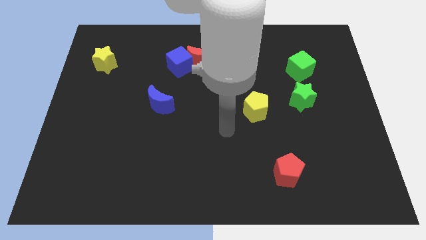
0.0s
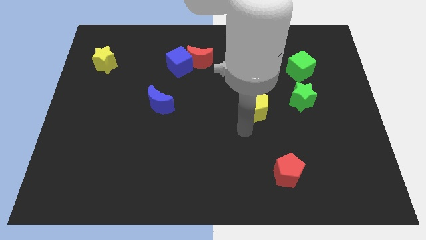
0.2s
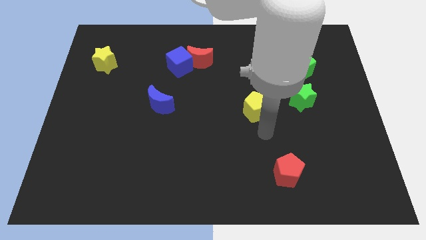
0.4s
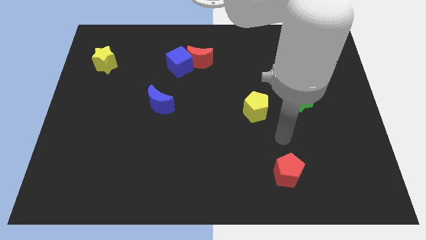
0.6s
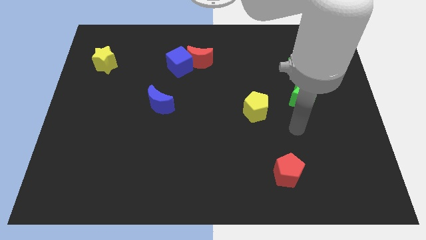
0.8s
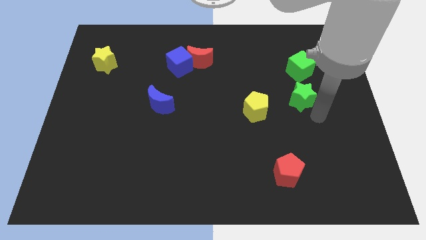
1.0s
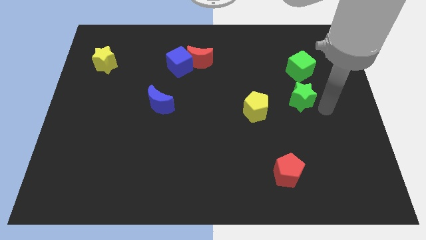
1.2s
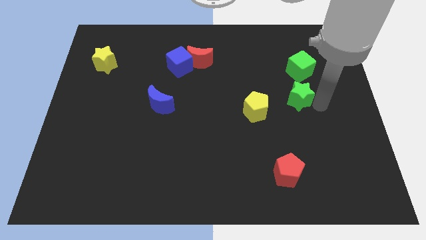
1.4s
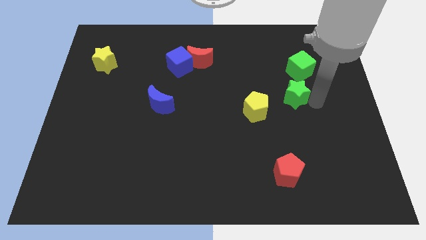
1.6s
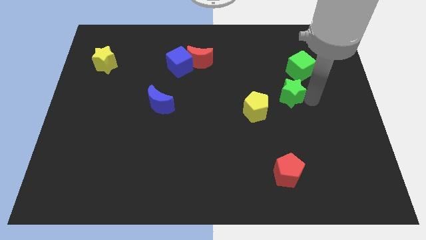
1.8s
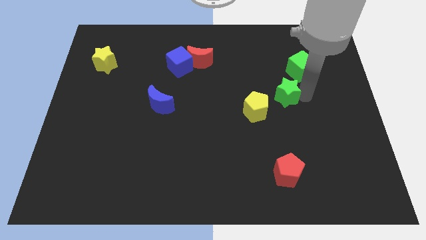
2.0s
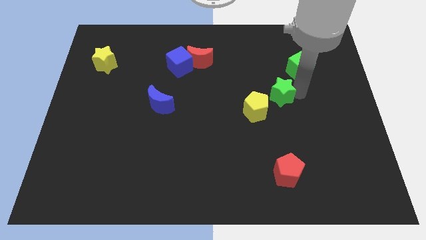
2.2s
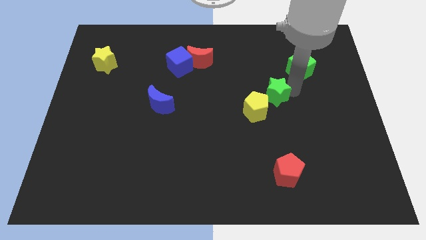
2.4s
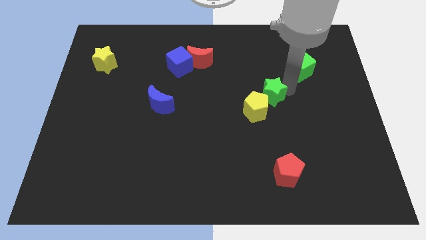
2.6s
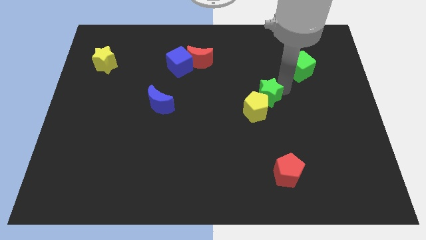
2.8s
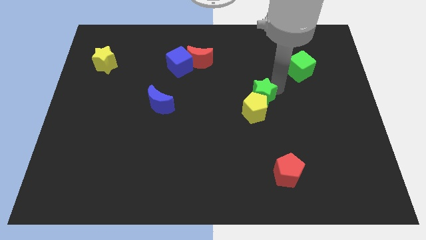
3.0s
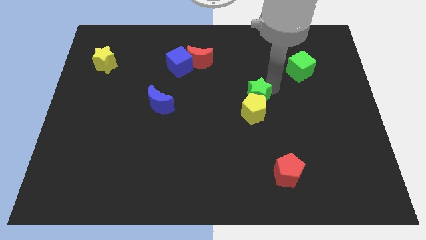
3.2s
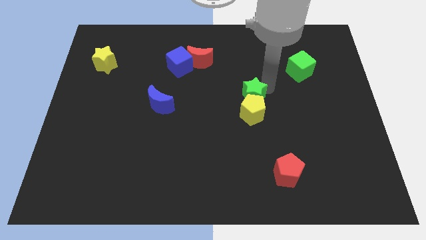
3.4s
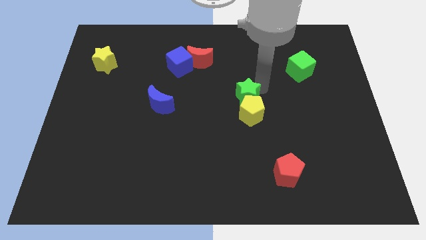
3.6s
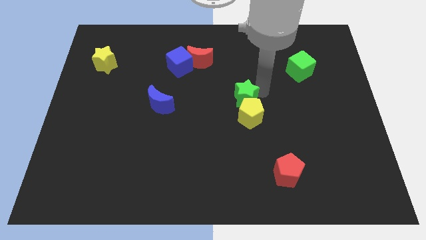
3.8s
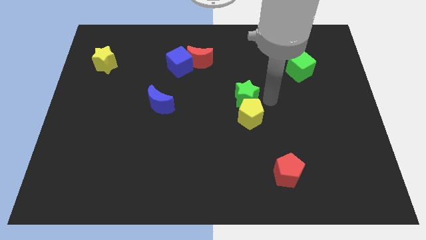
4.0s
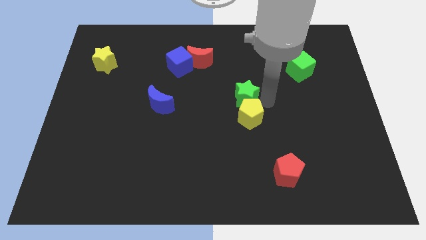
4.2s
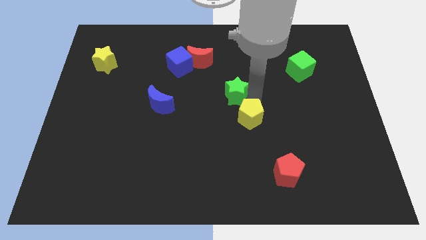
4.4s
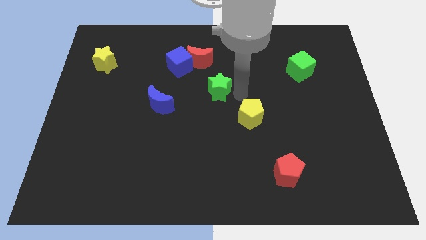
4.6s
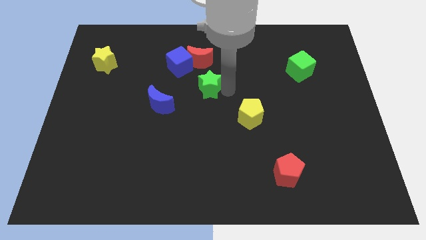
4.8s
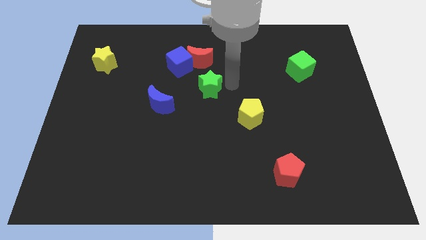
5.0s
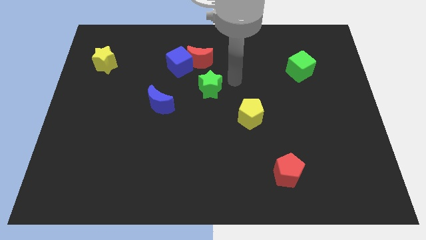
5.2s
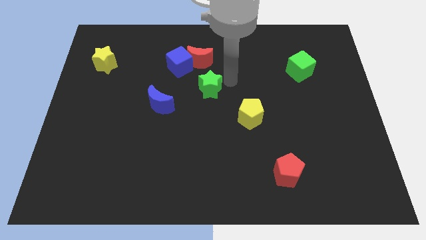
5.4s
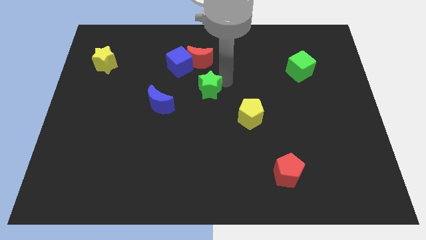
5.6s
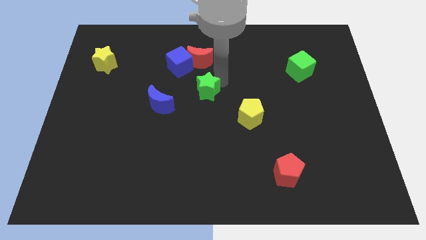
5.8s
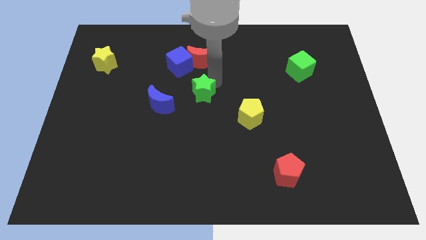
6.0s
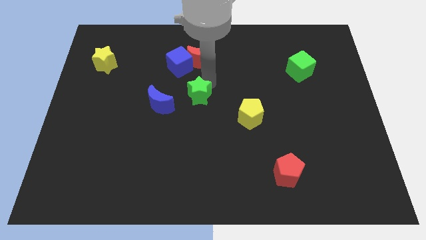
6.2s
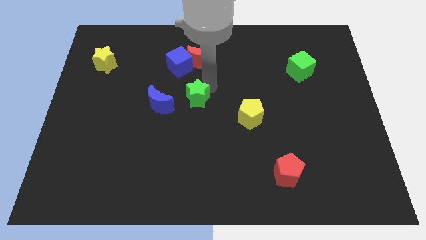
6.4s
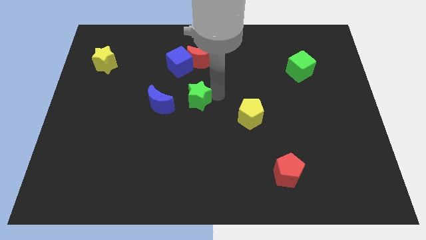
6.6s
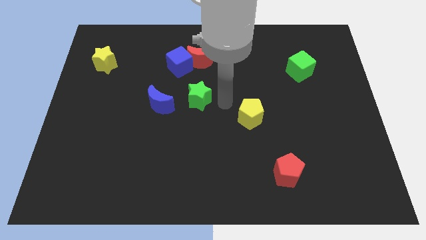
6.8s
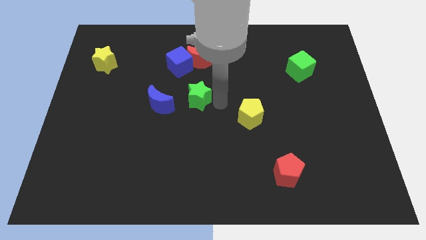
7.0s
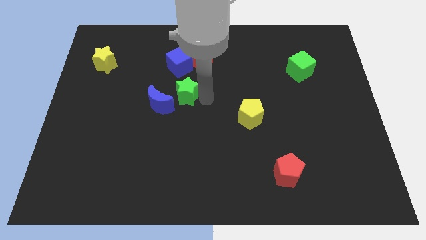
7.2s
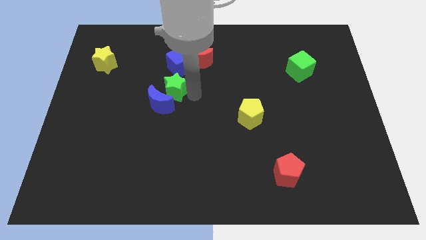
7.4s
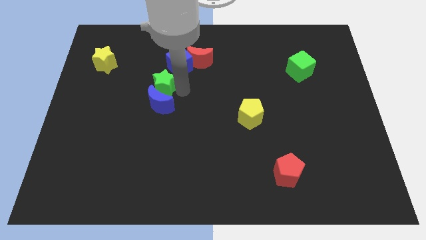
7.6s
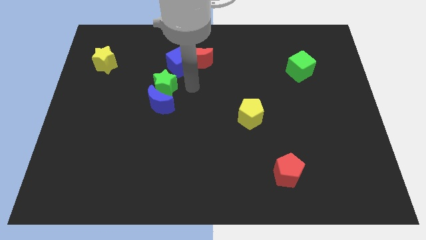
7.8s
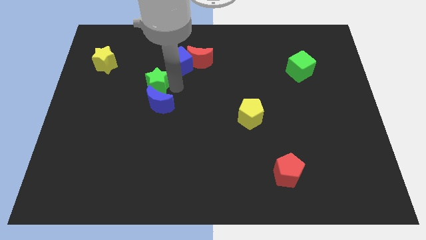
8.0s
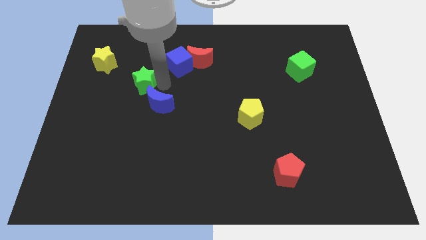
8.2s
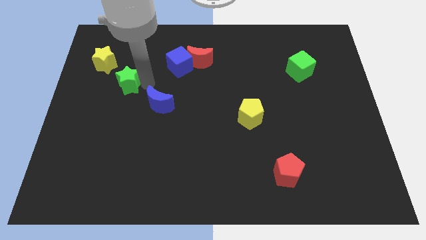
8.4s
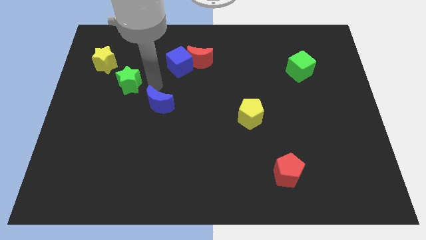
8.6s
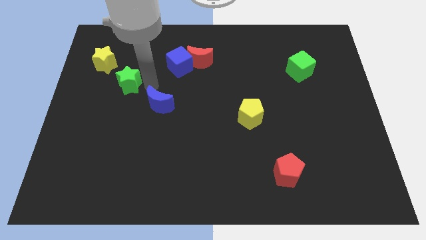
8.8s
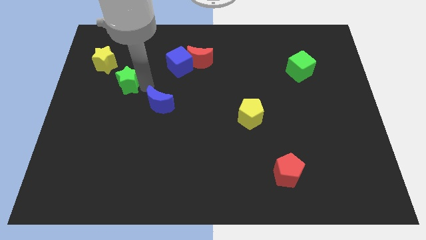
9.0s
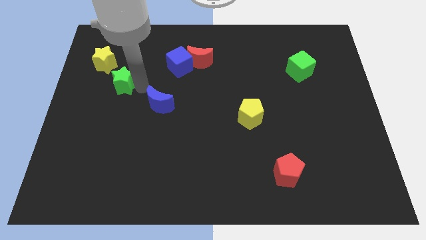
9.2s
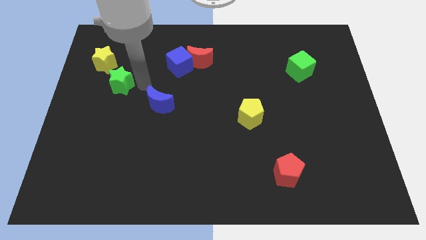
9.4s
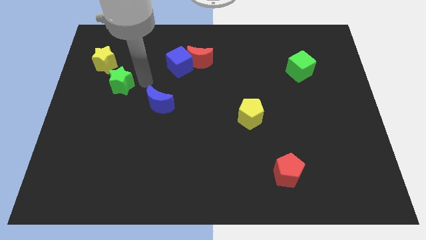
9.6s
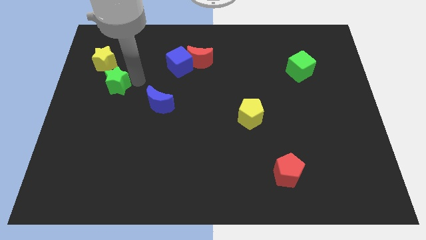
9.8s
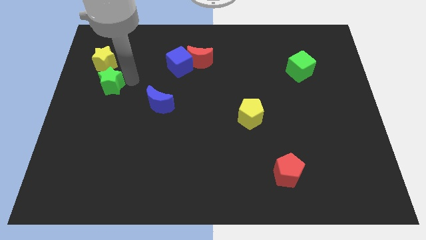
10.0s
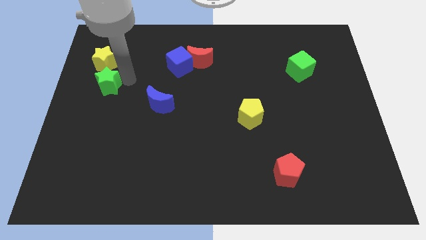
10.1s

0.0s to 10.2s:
push the green star to the left side of the board

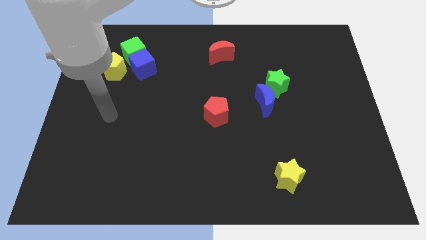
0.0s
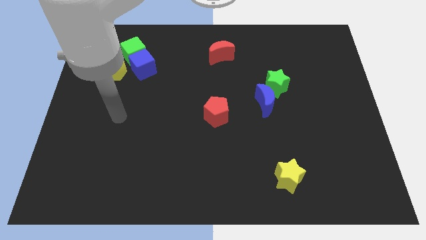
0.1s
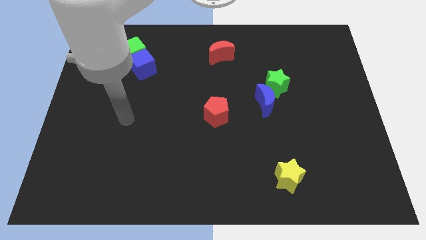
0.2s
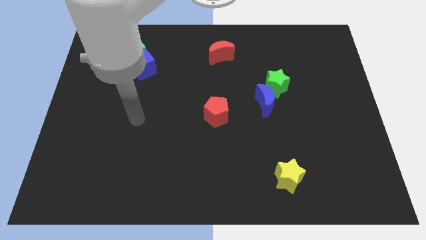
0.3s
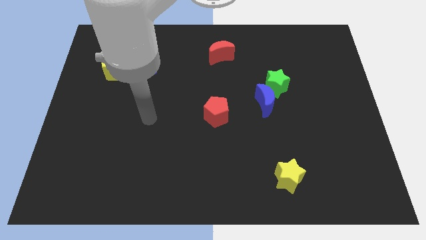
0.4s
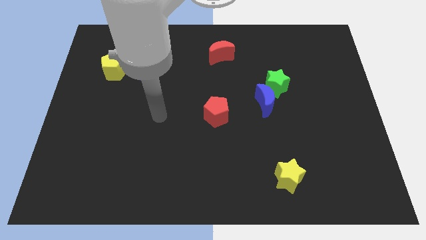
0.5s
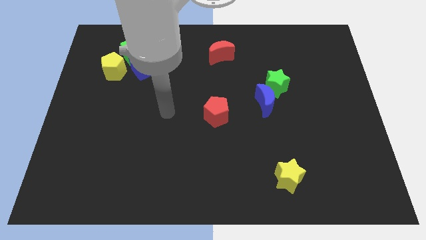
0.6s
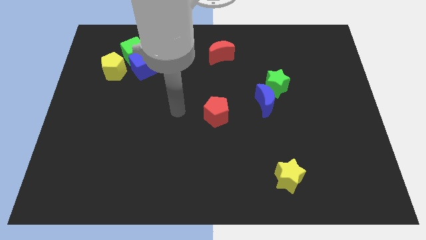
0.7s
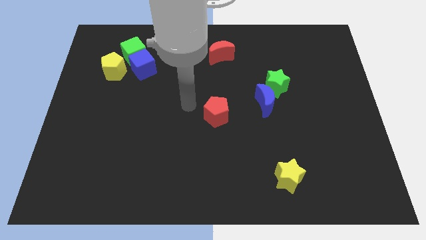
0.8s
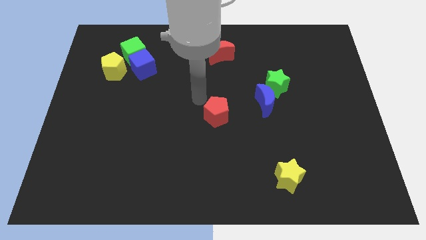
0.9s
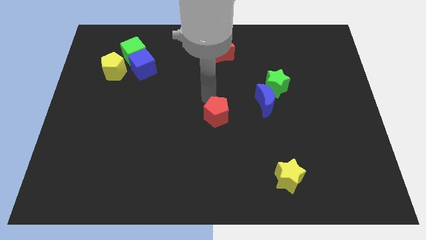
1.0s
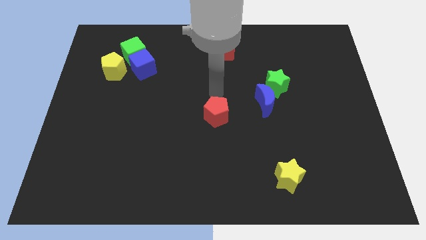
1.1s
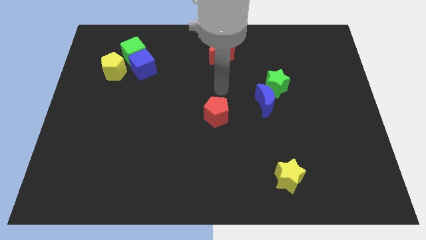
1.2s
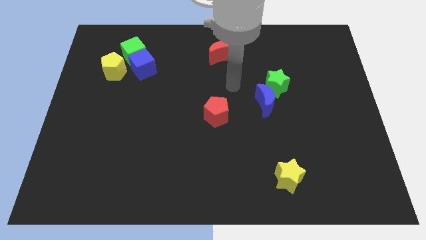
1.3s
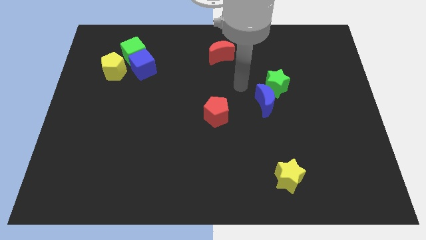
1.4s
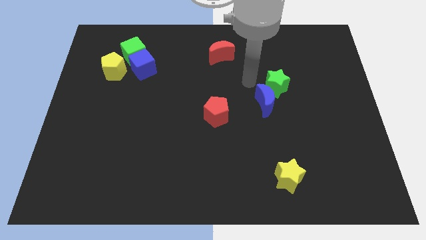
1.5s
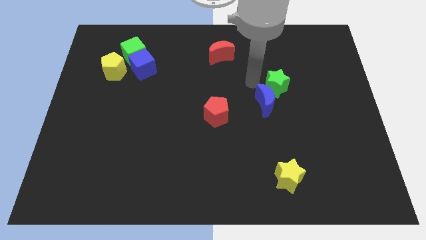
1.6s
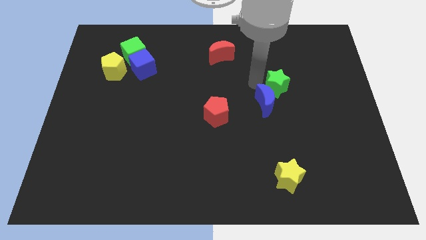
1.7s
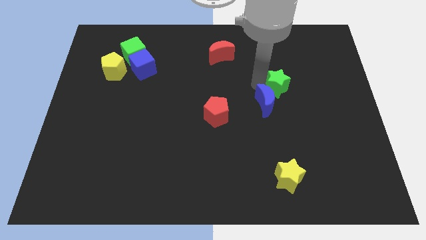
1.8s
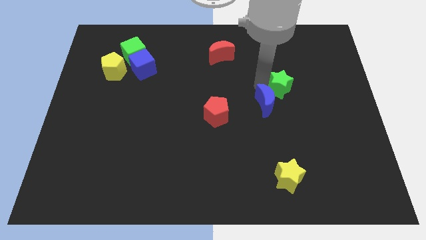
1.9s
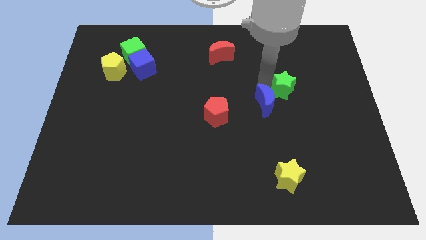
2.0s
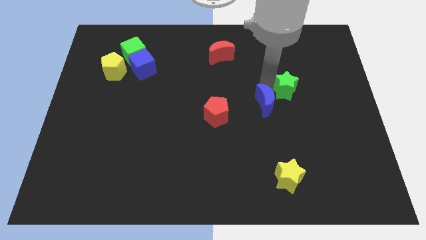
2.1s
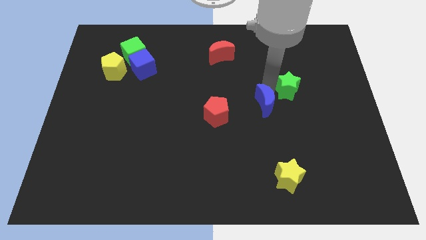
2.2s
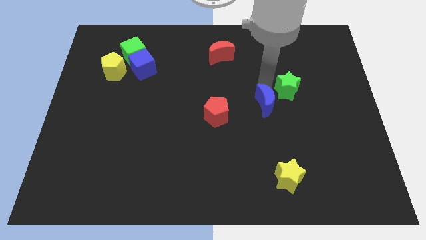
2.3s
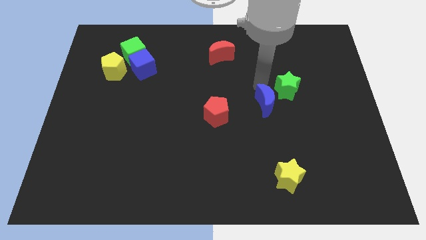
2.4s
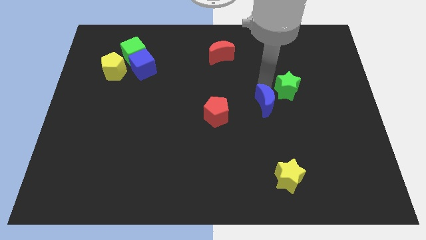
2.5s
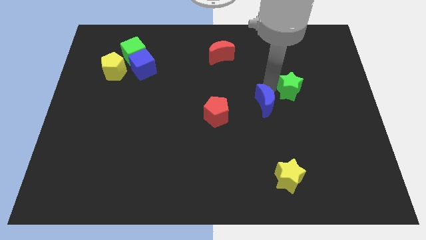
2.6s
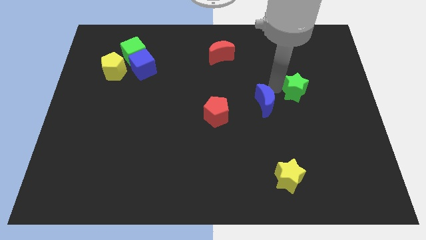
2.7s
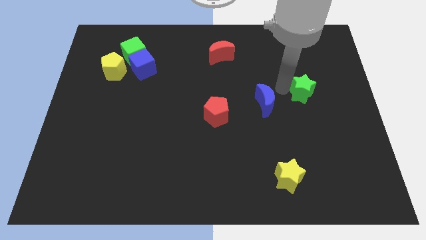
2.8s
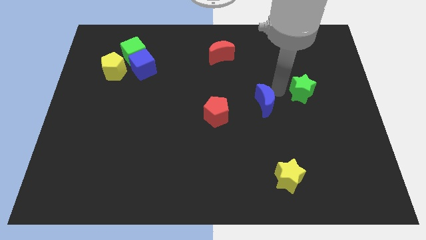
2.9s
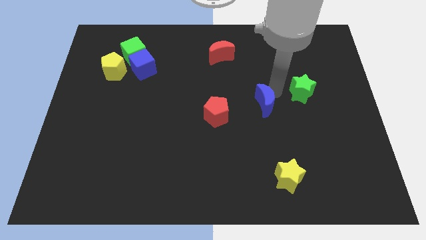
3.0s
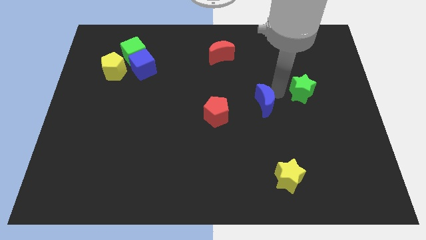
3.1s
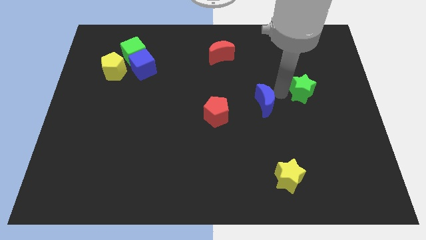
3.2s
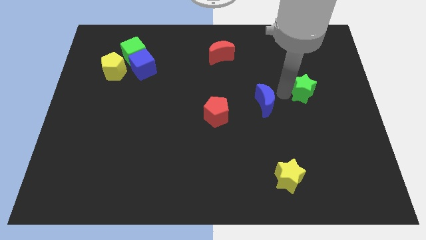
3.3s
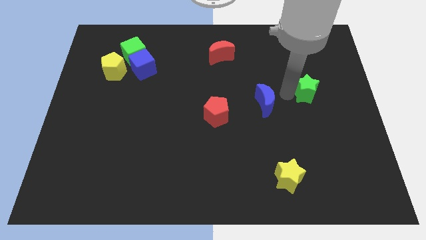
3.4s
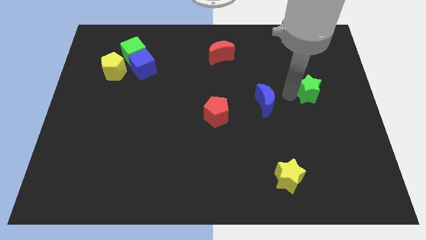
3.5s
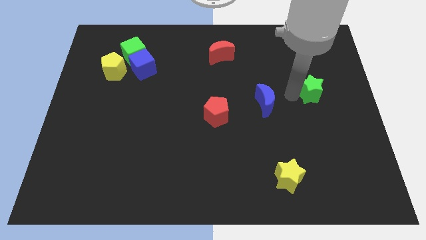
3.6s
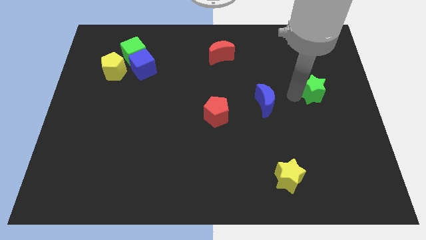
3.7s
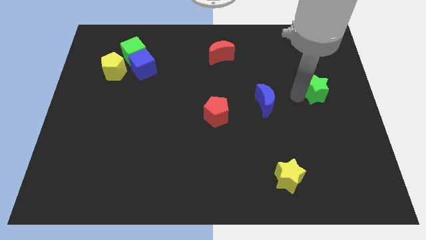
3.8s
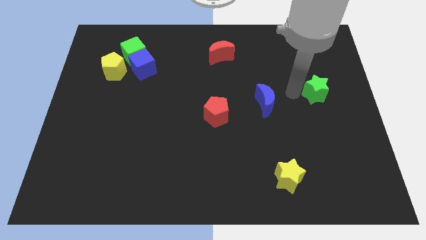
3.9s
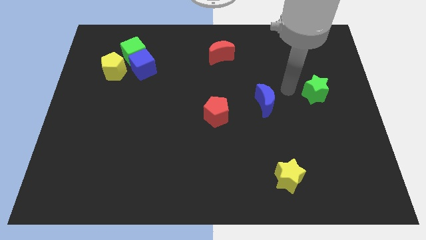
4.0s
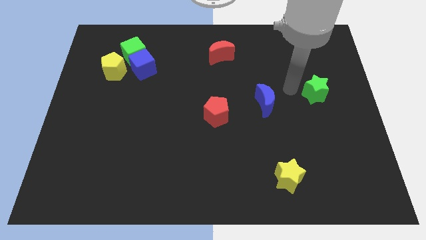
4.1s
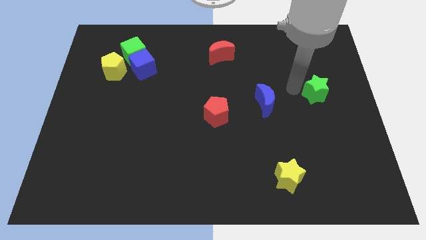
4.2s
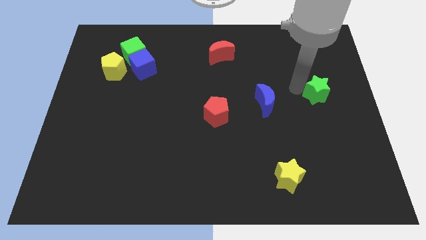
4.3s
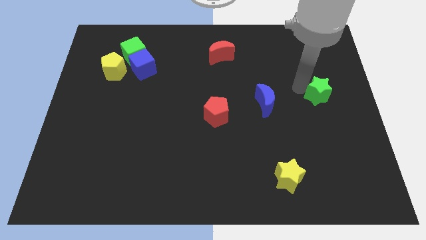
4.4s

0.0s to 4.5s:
put the green star to the right side
